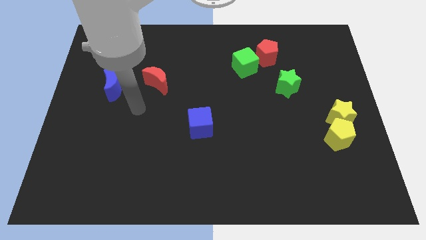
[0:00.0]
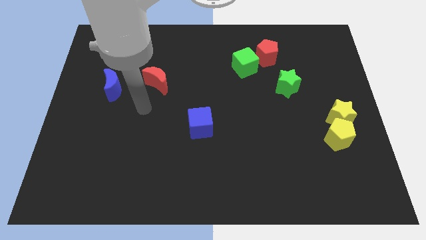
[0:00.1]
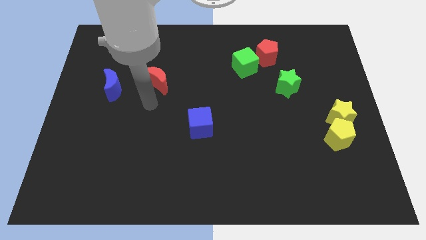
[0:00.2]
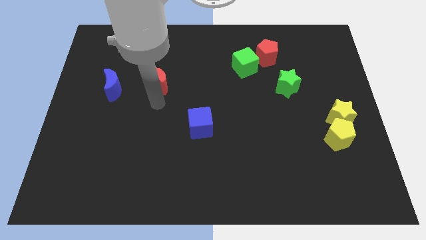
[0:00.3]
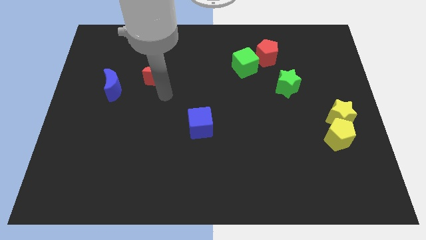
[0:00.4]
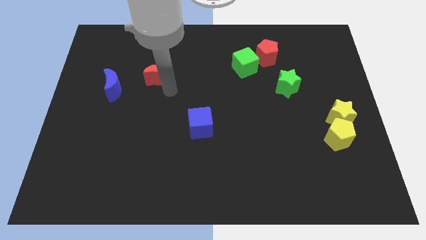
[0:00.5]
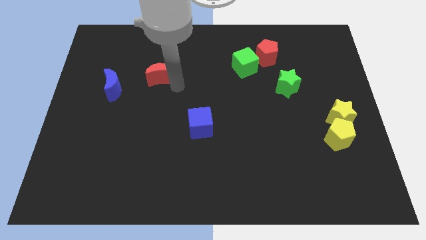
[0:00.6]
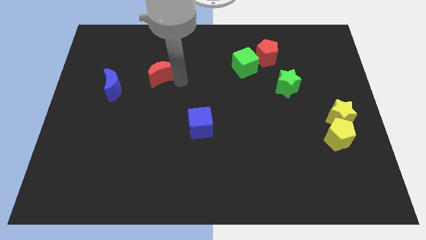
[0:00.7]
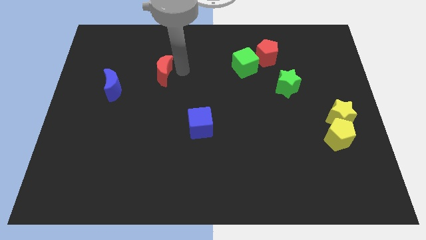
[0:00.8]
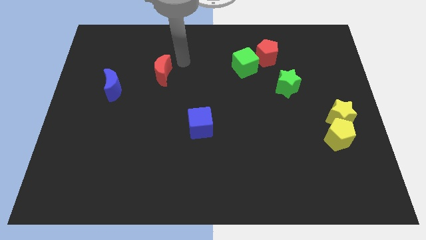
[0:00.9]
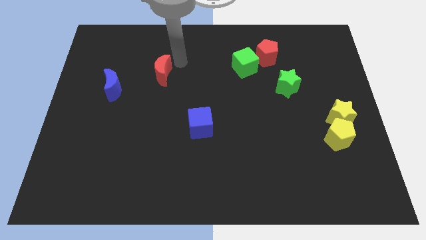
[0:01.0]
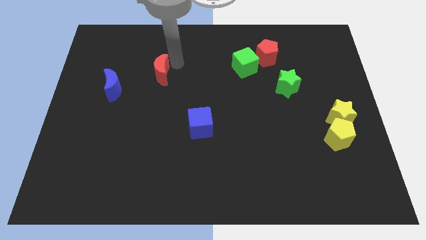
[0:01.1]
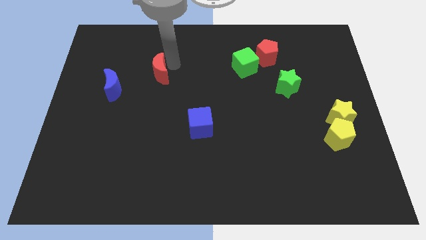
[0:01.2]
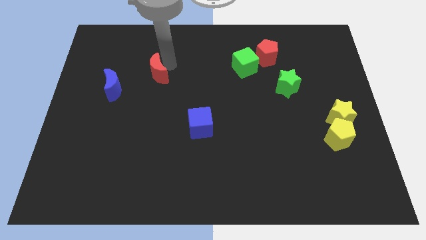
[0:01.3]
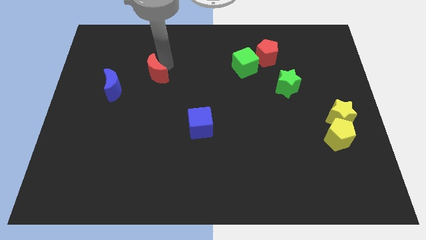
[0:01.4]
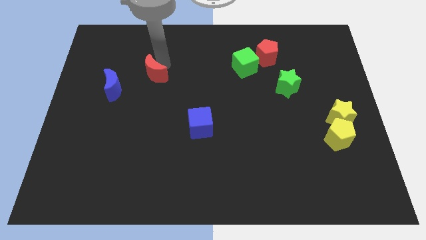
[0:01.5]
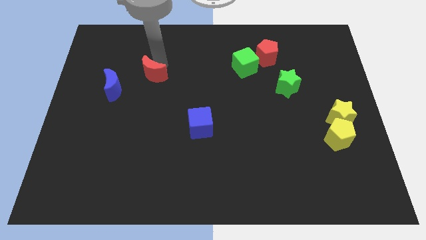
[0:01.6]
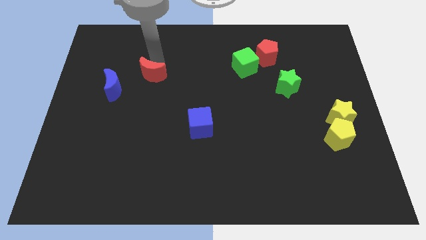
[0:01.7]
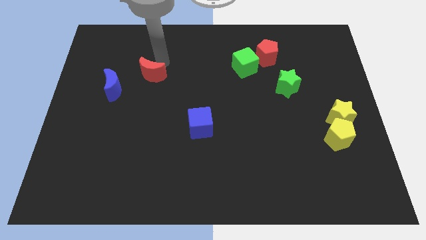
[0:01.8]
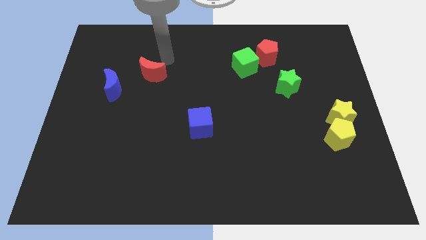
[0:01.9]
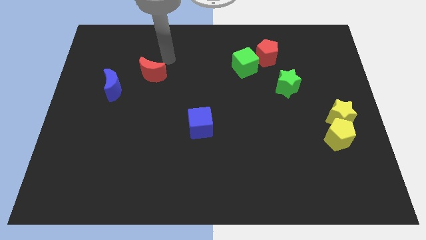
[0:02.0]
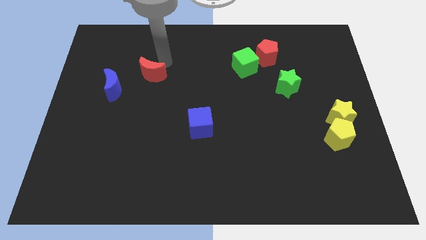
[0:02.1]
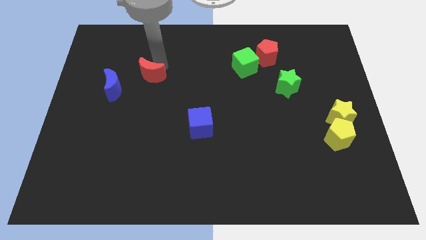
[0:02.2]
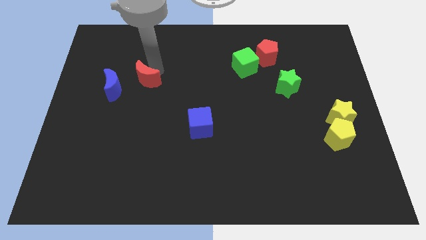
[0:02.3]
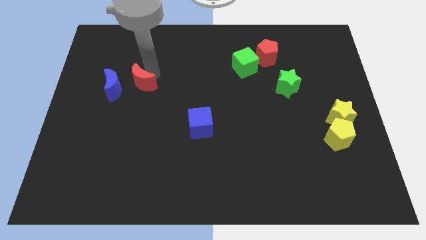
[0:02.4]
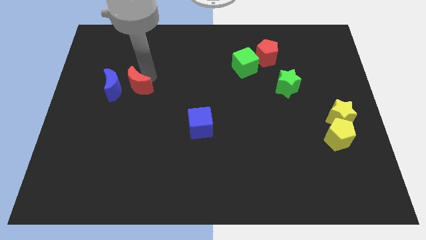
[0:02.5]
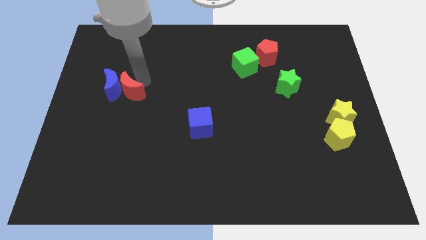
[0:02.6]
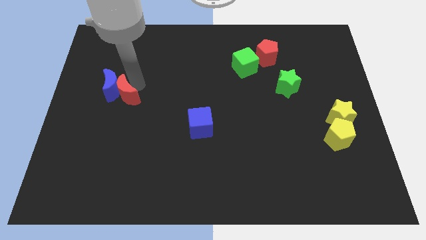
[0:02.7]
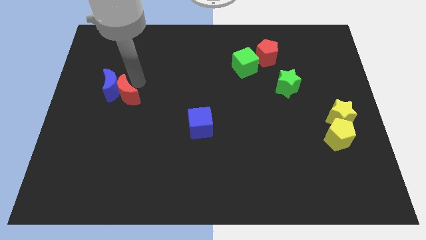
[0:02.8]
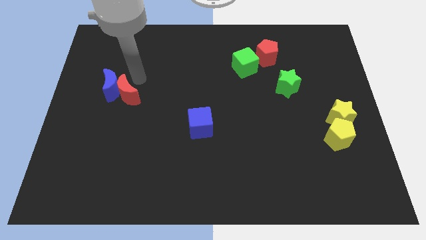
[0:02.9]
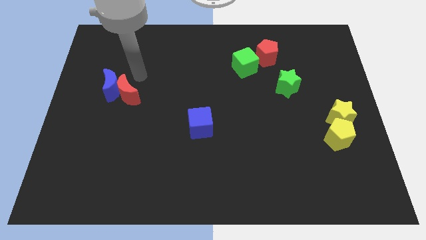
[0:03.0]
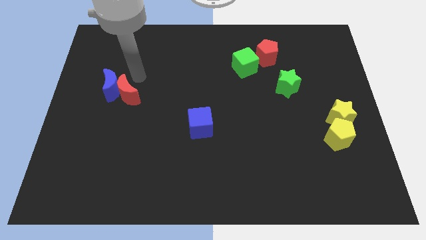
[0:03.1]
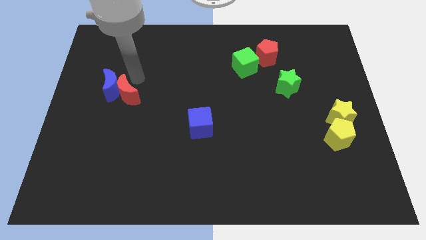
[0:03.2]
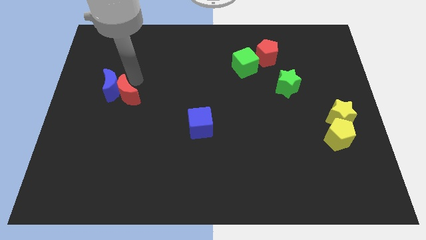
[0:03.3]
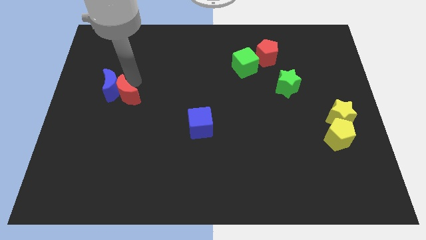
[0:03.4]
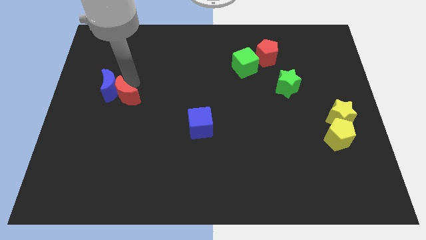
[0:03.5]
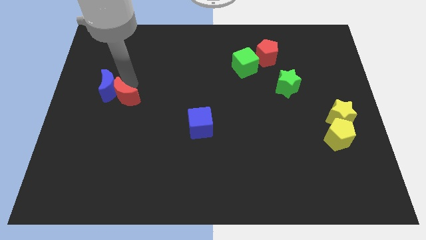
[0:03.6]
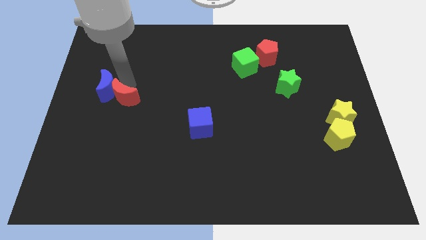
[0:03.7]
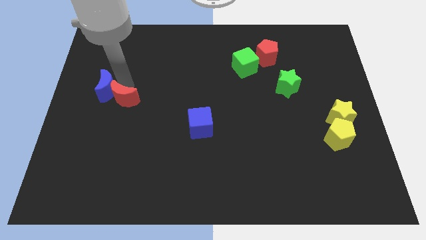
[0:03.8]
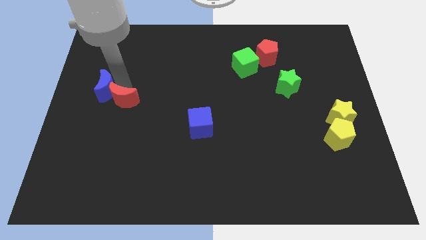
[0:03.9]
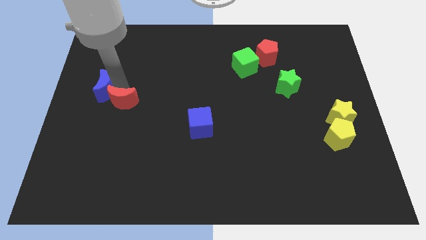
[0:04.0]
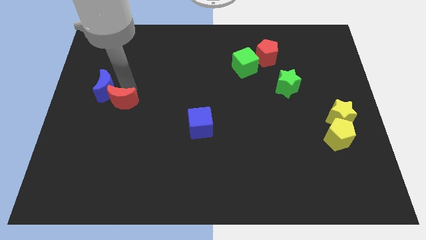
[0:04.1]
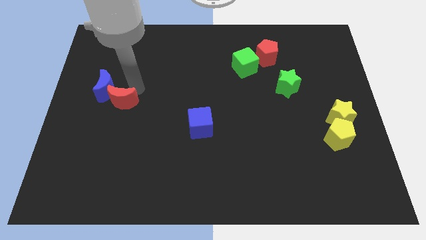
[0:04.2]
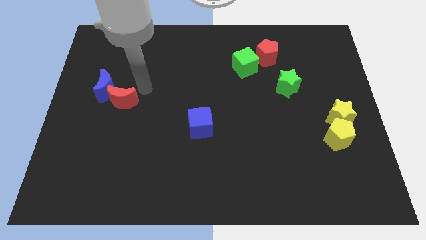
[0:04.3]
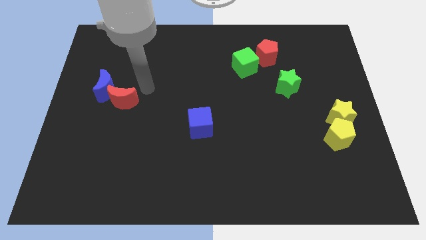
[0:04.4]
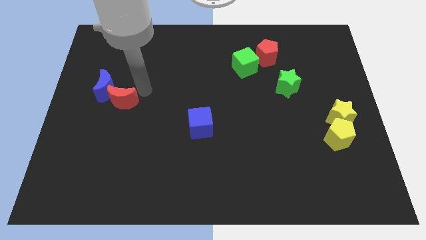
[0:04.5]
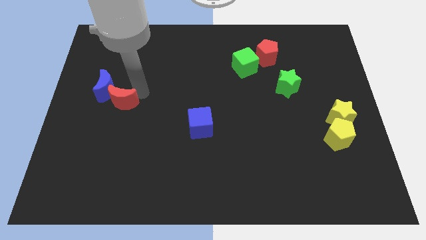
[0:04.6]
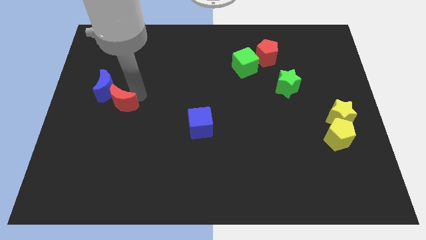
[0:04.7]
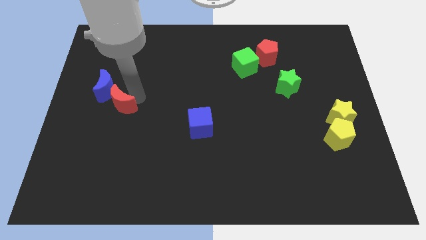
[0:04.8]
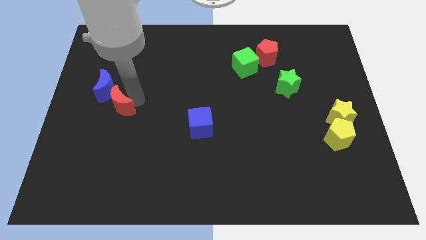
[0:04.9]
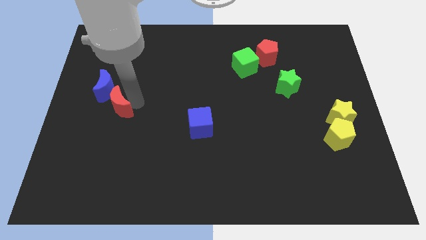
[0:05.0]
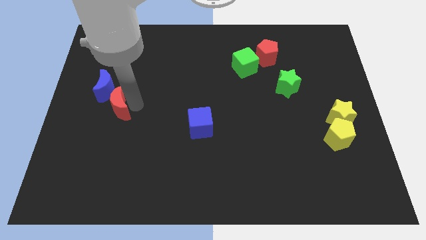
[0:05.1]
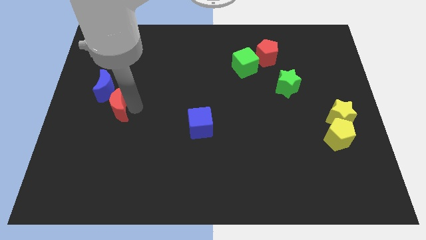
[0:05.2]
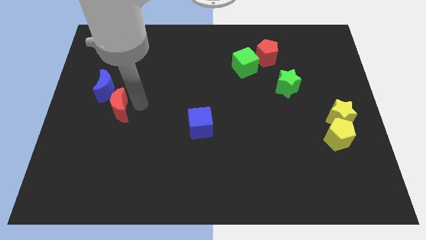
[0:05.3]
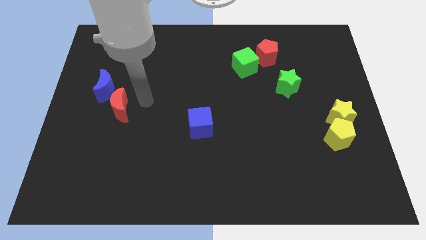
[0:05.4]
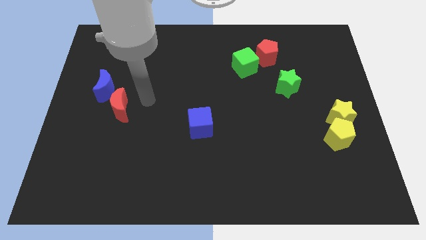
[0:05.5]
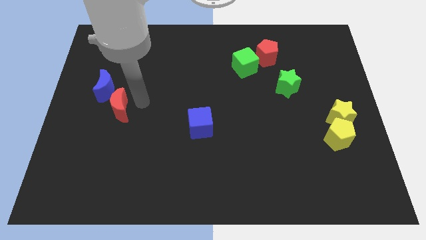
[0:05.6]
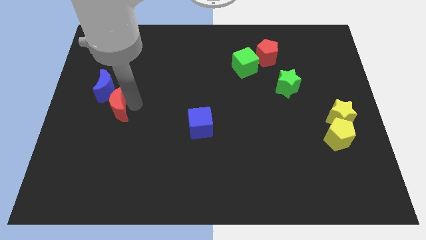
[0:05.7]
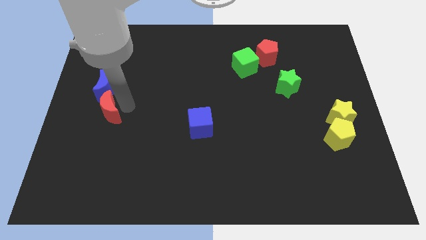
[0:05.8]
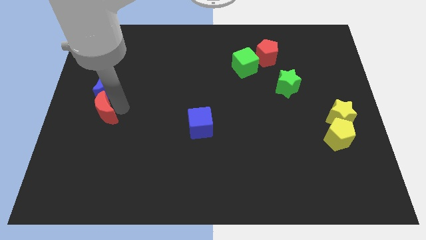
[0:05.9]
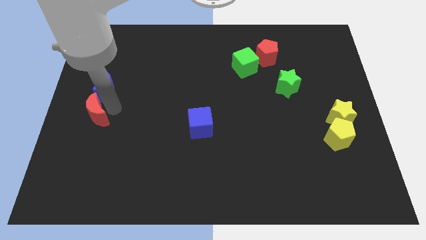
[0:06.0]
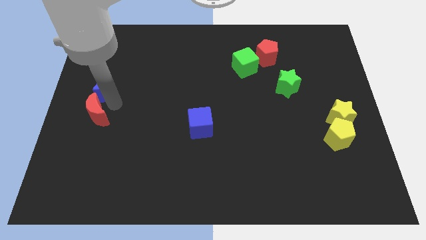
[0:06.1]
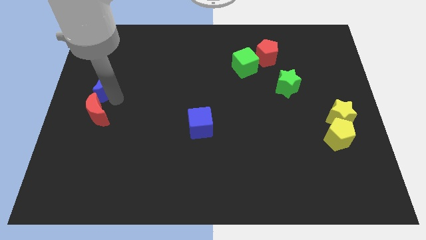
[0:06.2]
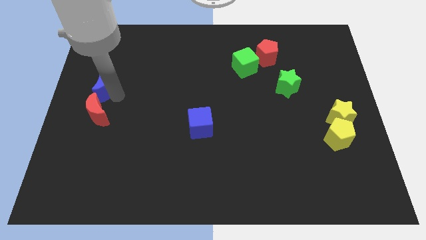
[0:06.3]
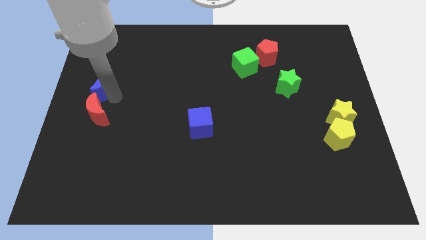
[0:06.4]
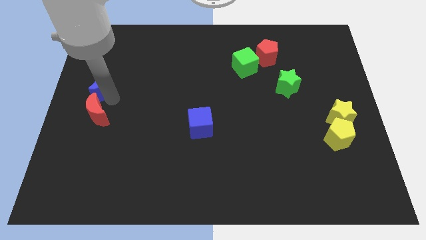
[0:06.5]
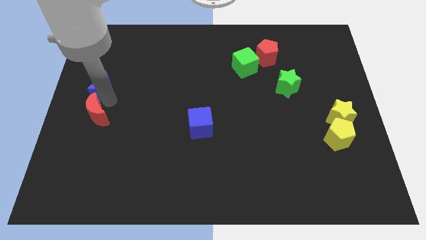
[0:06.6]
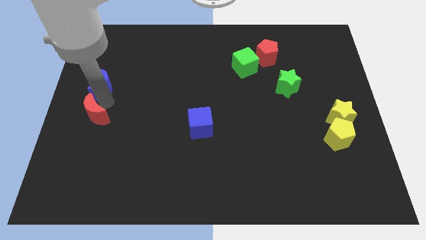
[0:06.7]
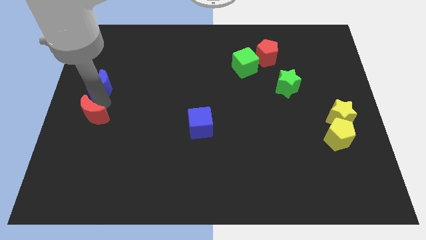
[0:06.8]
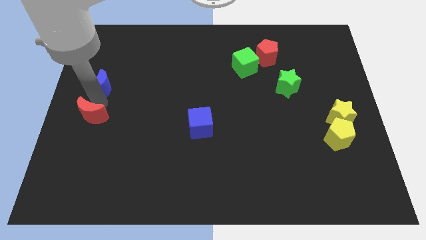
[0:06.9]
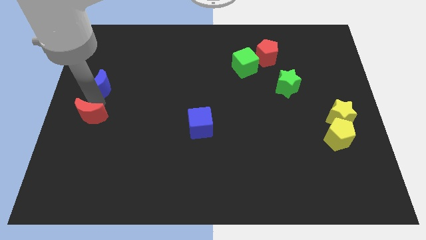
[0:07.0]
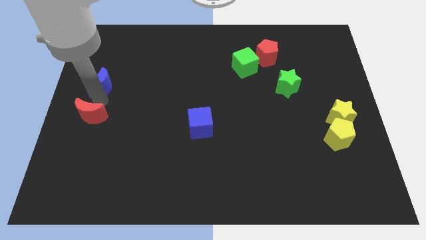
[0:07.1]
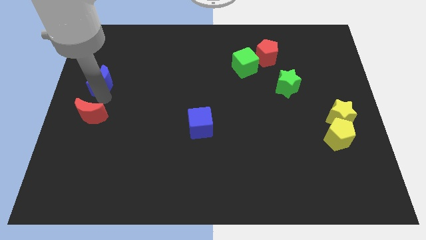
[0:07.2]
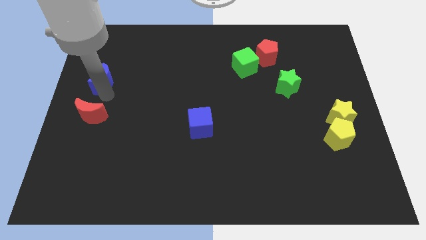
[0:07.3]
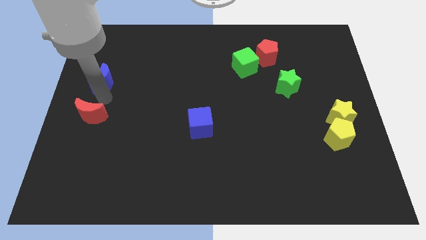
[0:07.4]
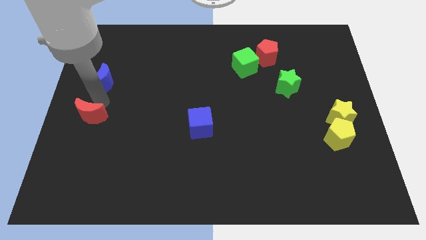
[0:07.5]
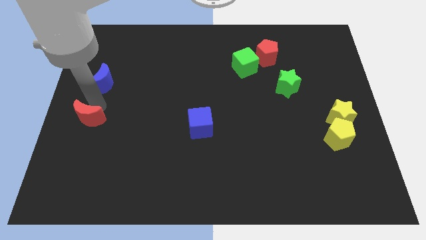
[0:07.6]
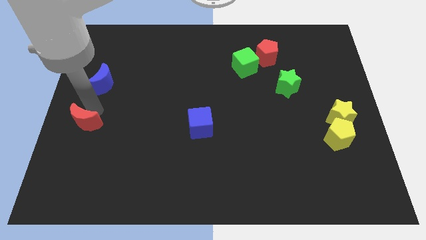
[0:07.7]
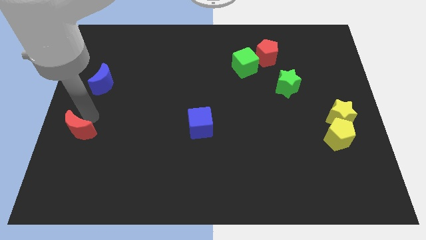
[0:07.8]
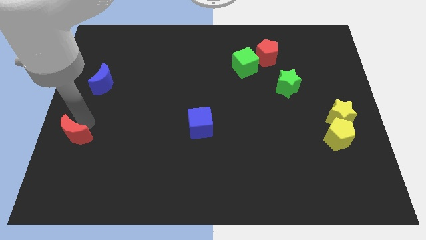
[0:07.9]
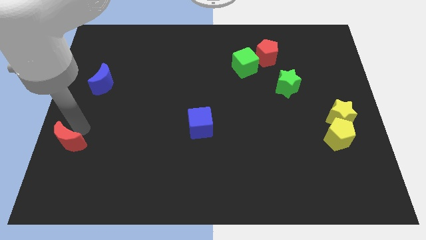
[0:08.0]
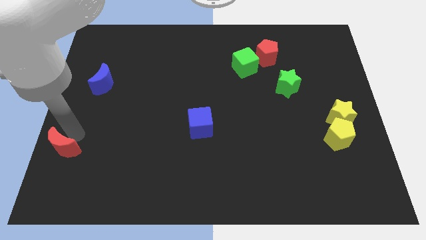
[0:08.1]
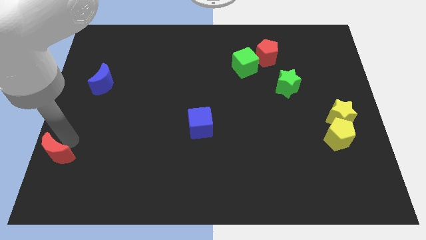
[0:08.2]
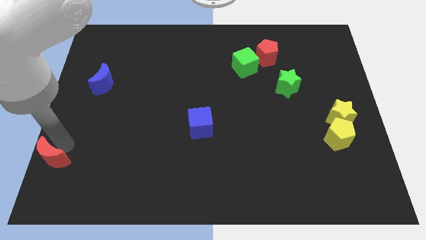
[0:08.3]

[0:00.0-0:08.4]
push the red moon to the bottom left of the board
